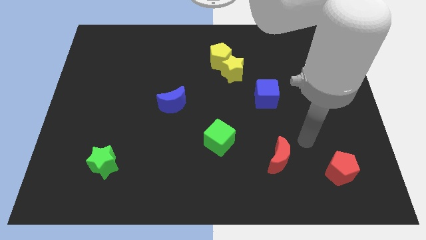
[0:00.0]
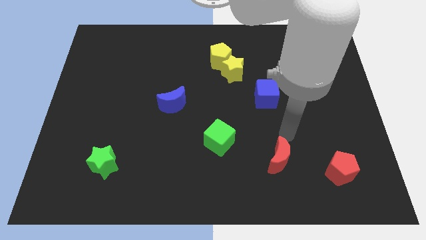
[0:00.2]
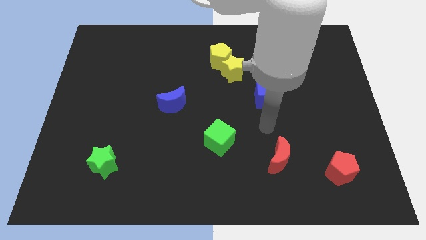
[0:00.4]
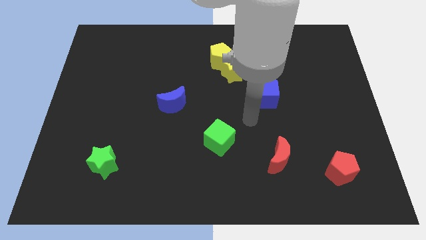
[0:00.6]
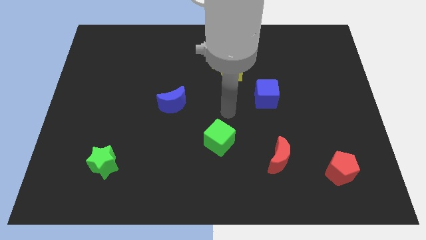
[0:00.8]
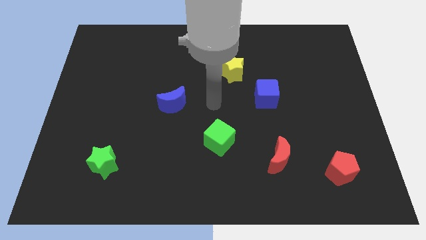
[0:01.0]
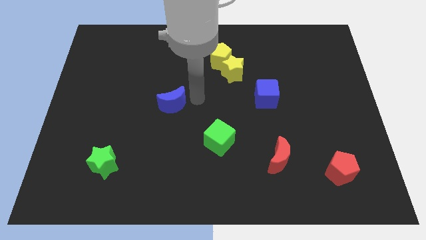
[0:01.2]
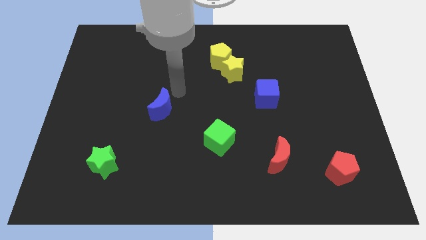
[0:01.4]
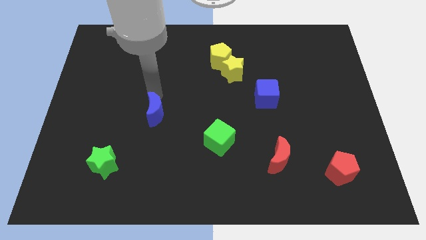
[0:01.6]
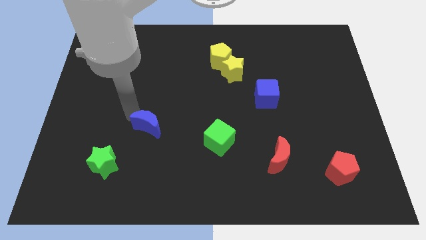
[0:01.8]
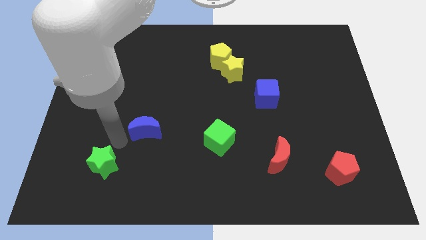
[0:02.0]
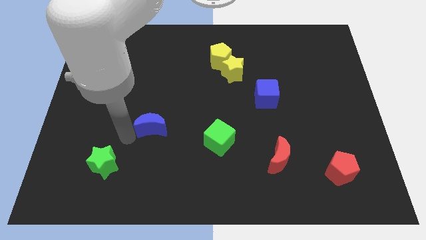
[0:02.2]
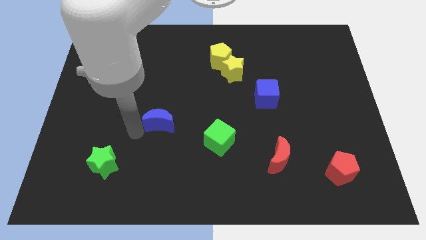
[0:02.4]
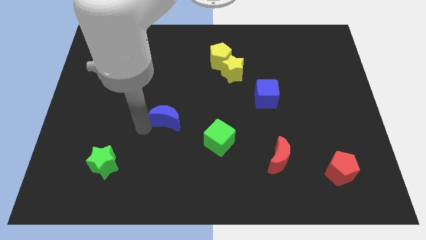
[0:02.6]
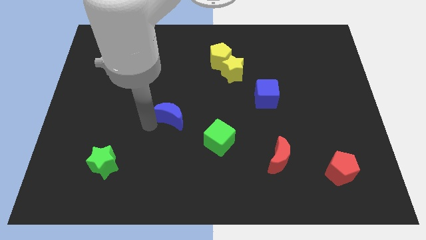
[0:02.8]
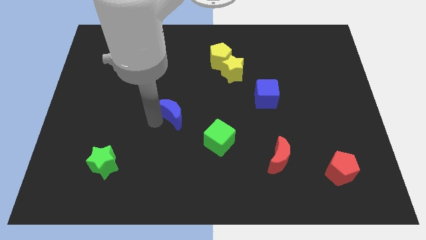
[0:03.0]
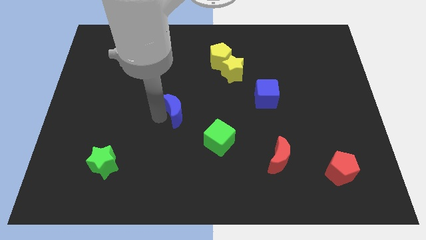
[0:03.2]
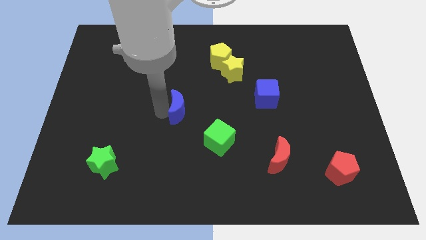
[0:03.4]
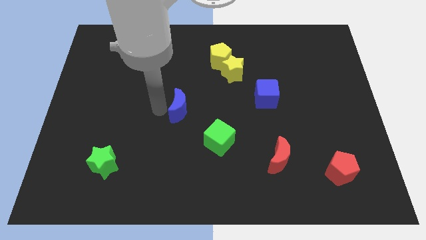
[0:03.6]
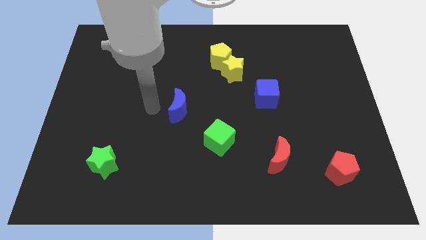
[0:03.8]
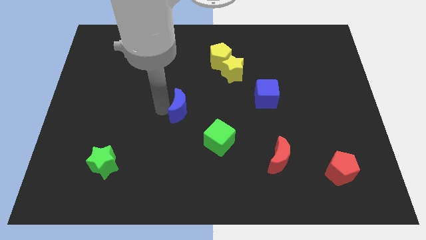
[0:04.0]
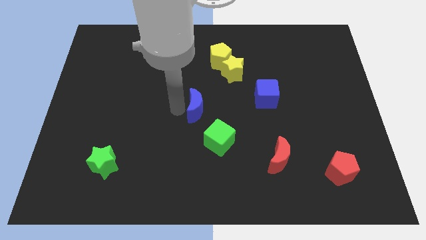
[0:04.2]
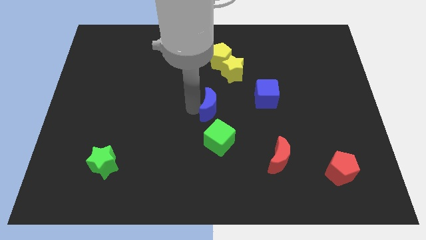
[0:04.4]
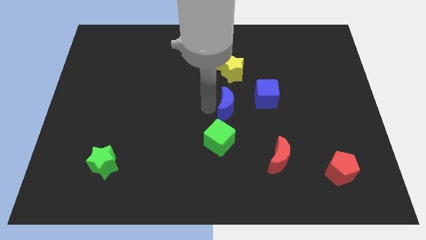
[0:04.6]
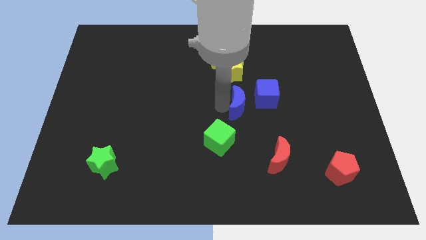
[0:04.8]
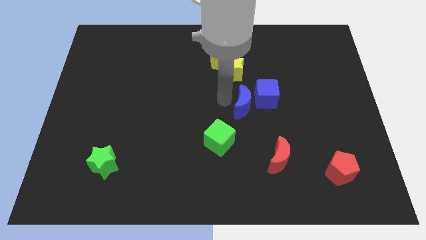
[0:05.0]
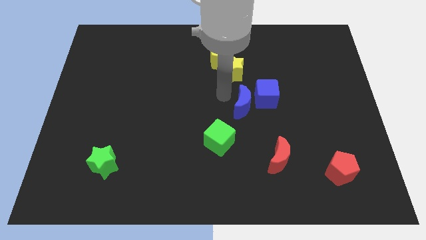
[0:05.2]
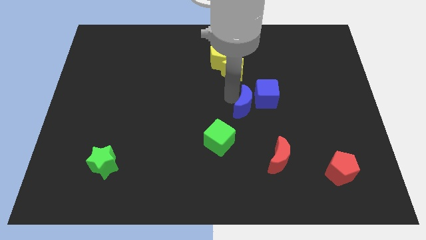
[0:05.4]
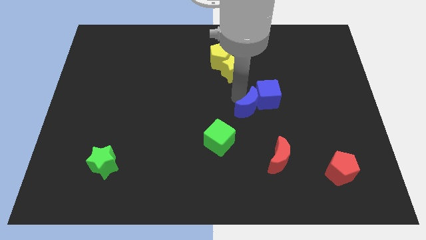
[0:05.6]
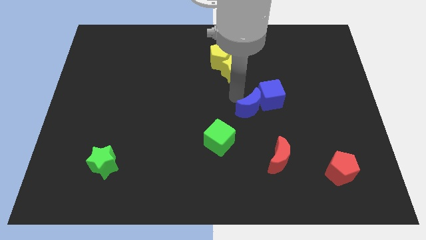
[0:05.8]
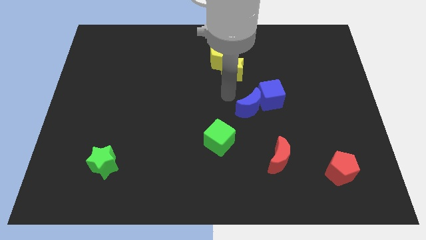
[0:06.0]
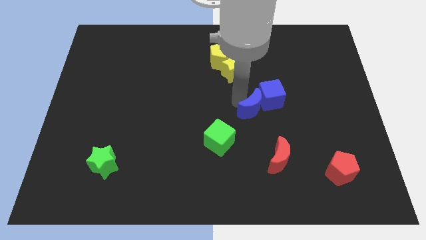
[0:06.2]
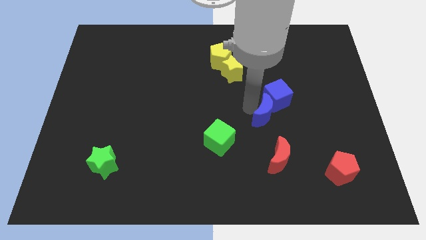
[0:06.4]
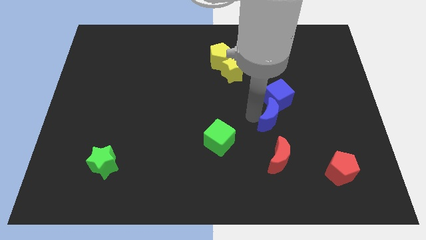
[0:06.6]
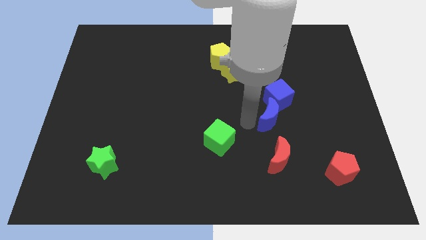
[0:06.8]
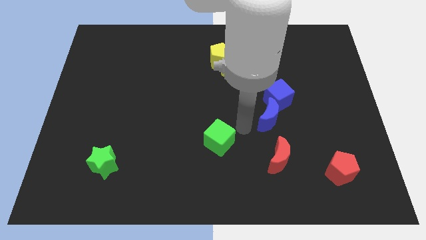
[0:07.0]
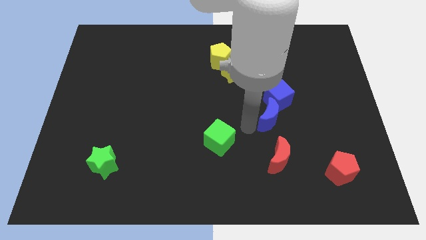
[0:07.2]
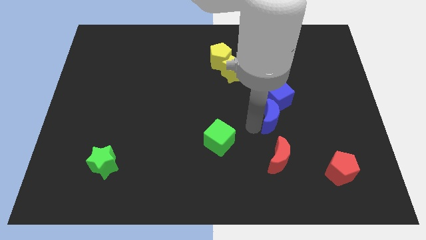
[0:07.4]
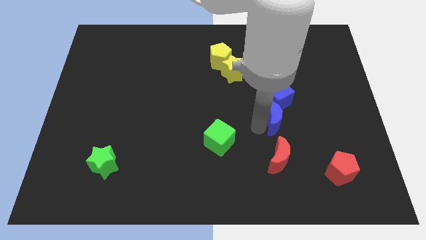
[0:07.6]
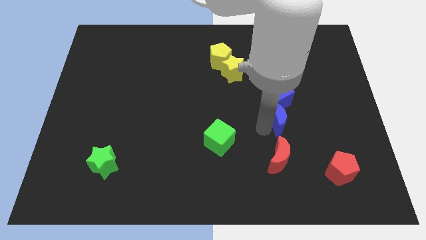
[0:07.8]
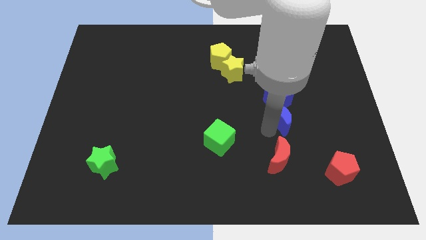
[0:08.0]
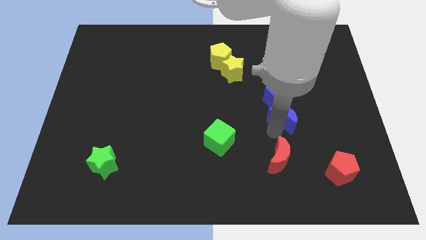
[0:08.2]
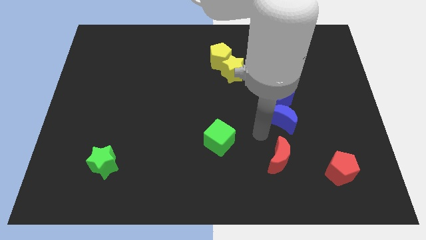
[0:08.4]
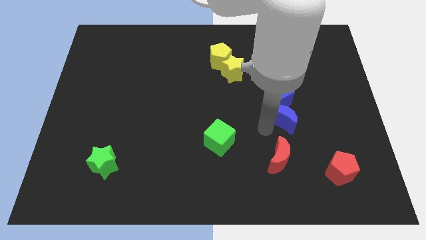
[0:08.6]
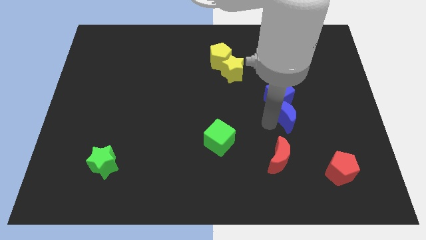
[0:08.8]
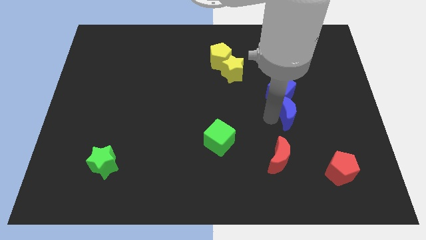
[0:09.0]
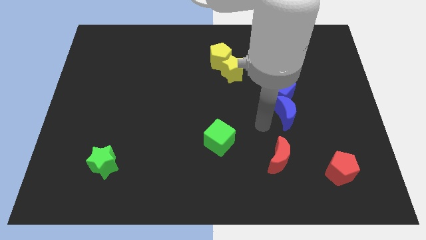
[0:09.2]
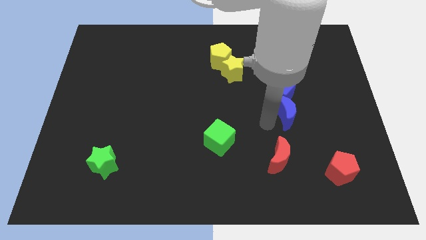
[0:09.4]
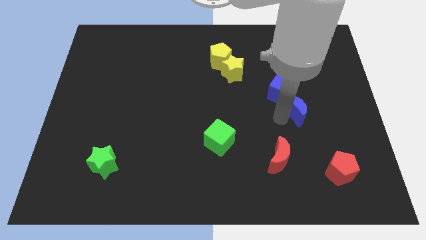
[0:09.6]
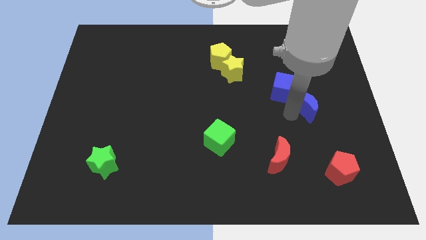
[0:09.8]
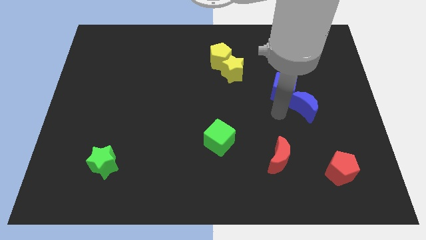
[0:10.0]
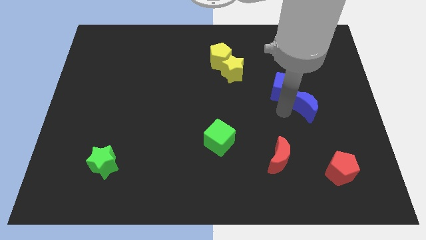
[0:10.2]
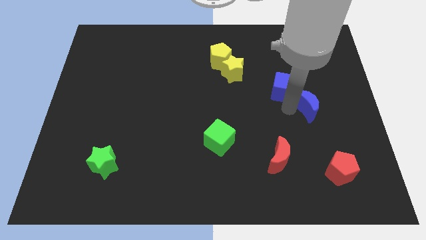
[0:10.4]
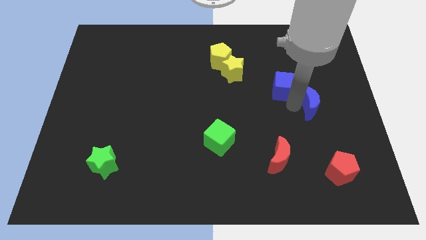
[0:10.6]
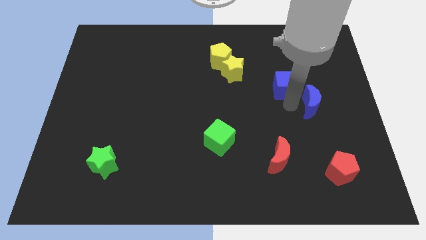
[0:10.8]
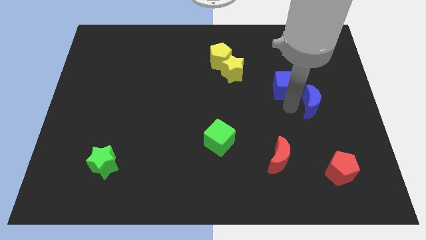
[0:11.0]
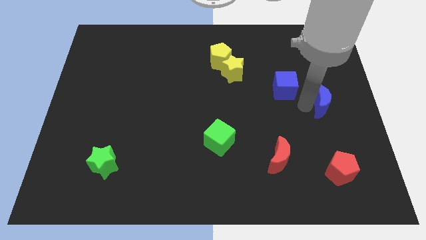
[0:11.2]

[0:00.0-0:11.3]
put the blue moon to the right side of the board

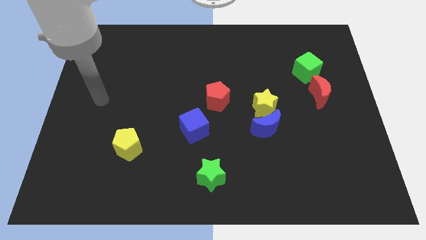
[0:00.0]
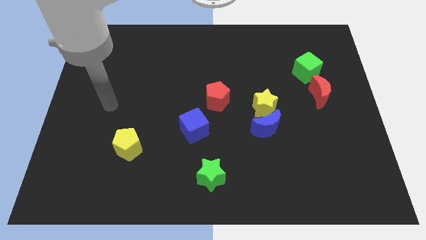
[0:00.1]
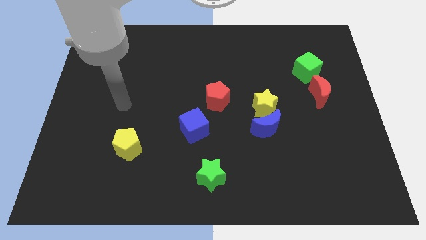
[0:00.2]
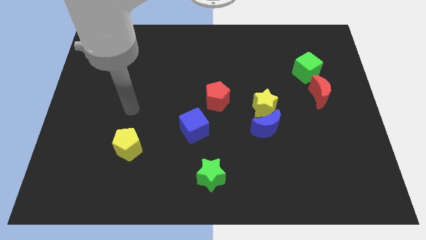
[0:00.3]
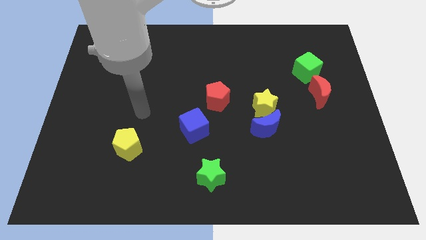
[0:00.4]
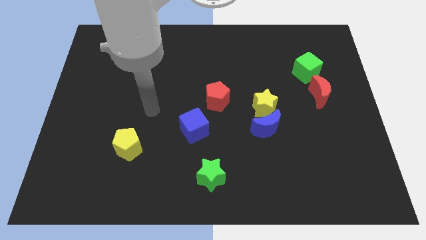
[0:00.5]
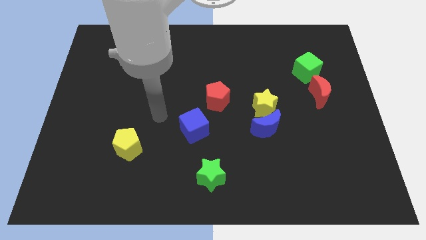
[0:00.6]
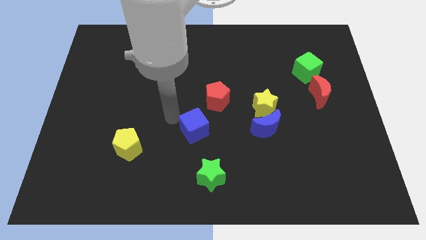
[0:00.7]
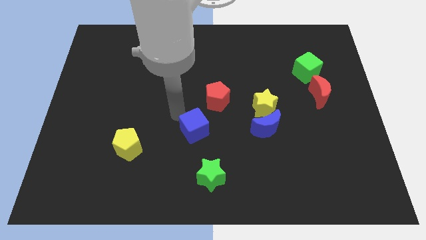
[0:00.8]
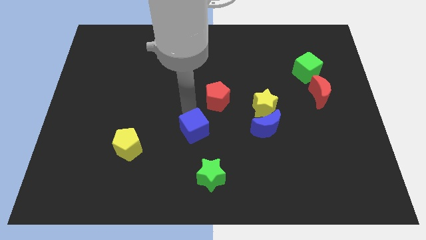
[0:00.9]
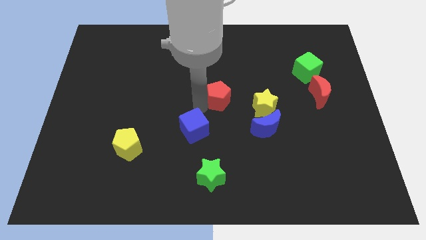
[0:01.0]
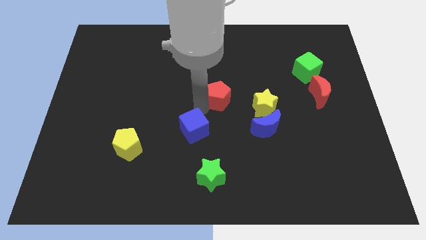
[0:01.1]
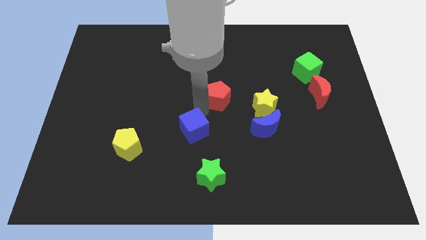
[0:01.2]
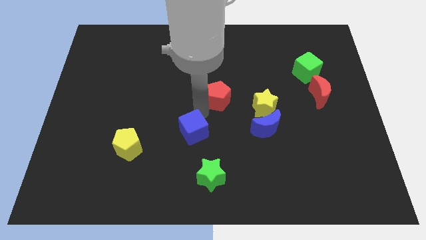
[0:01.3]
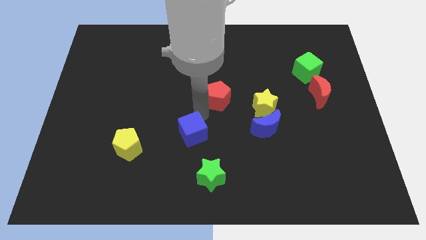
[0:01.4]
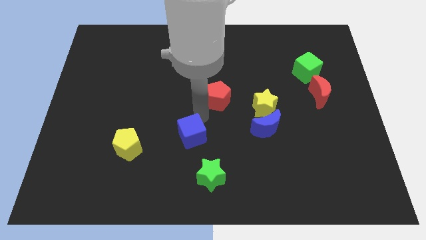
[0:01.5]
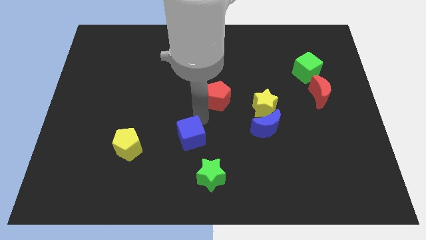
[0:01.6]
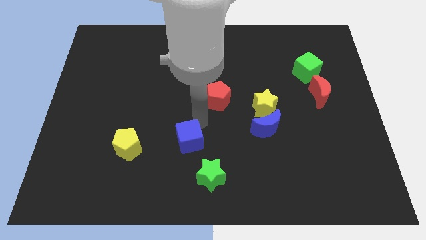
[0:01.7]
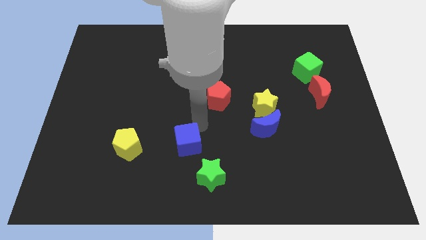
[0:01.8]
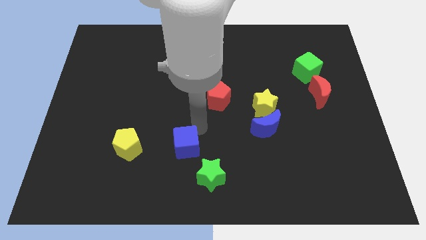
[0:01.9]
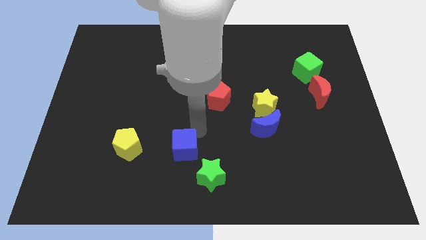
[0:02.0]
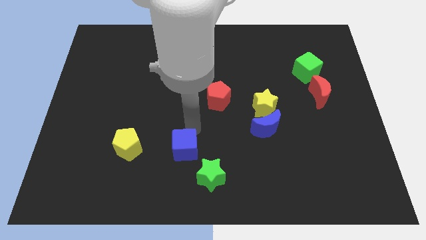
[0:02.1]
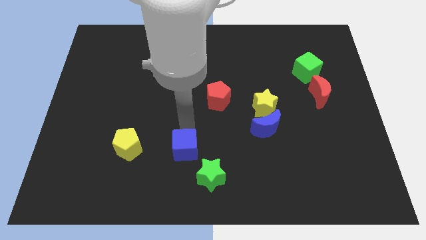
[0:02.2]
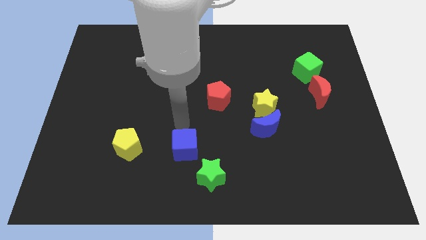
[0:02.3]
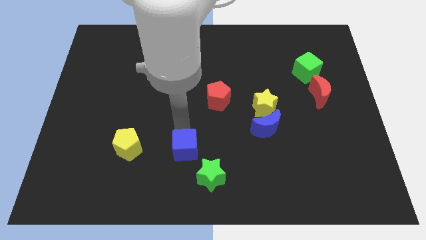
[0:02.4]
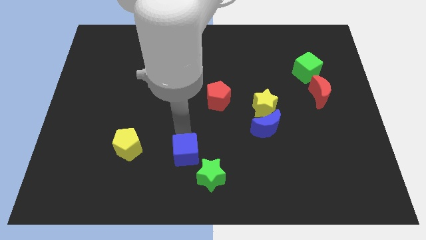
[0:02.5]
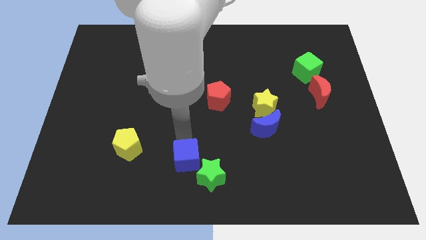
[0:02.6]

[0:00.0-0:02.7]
move the blue cube to the bottom side
